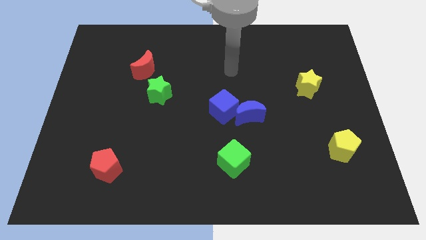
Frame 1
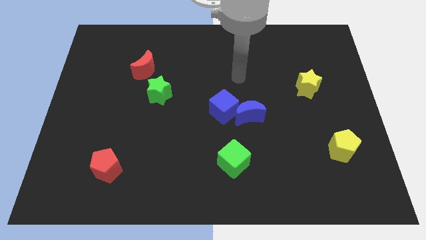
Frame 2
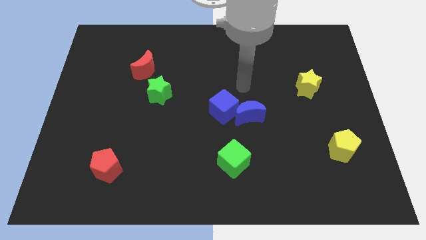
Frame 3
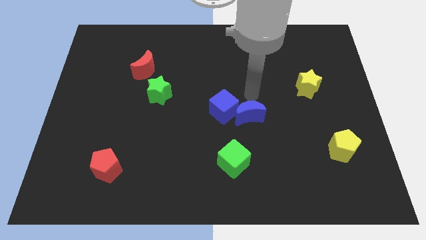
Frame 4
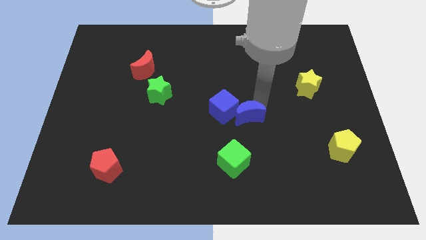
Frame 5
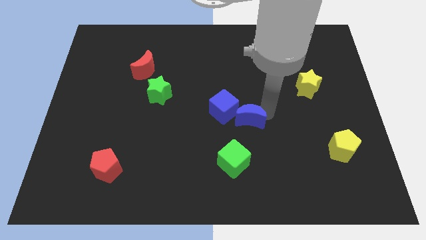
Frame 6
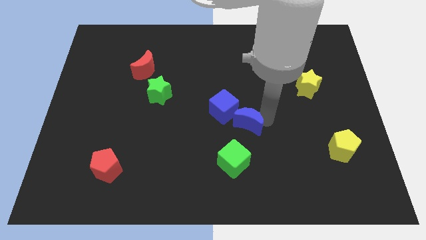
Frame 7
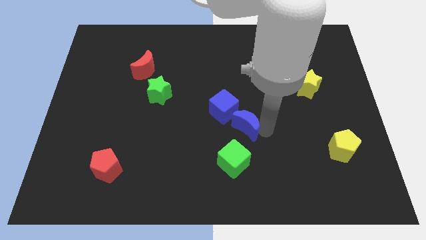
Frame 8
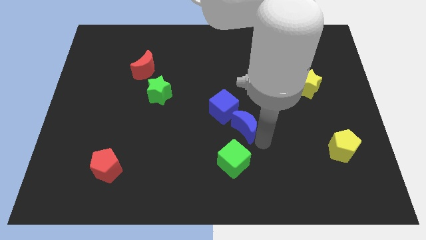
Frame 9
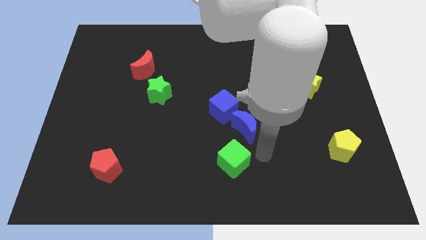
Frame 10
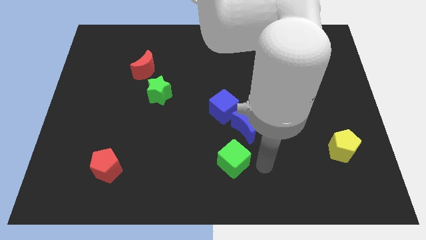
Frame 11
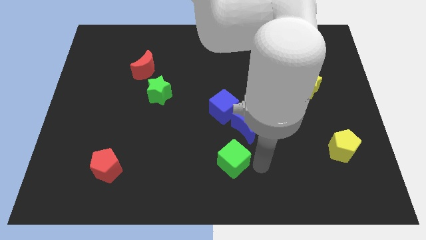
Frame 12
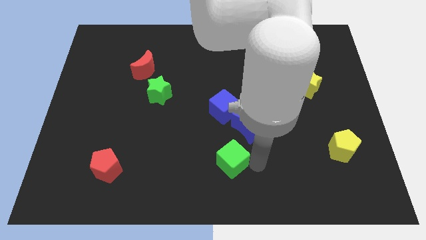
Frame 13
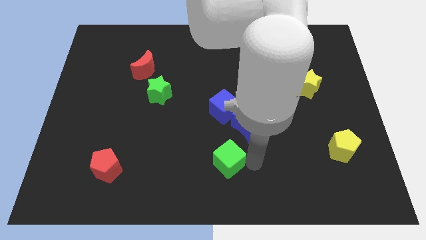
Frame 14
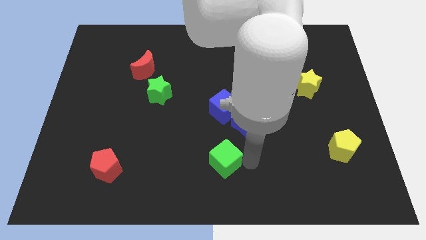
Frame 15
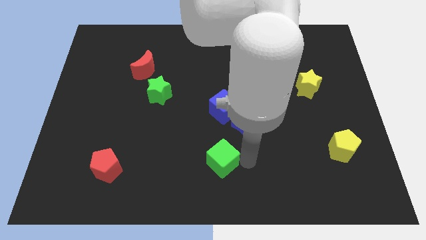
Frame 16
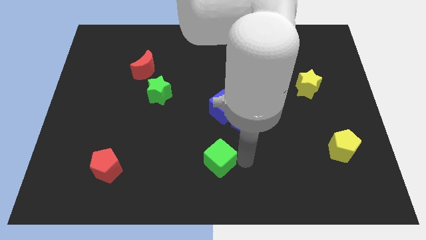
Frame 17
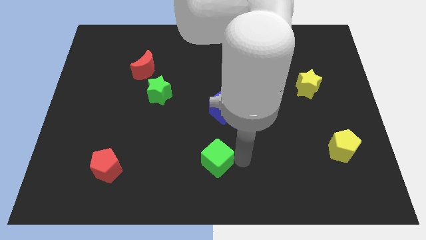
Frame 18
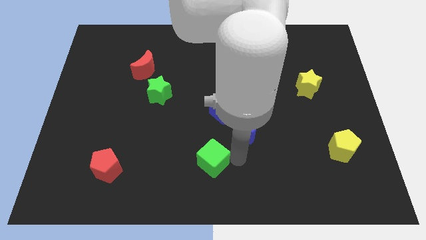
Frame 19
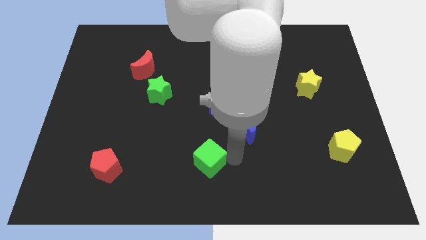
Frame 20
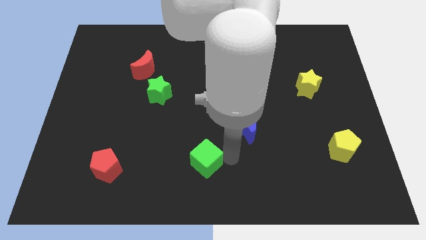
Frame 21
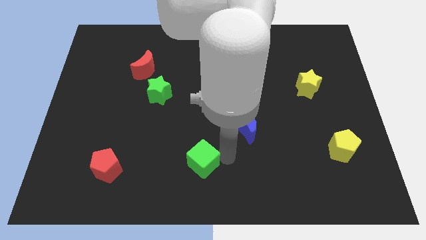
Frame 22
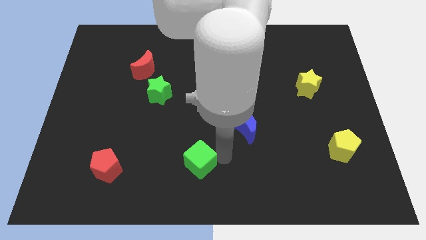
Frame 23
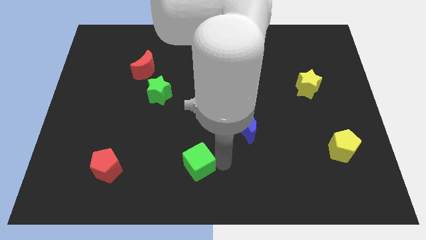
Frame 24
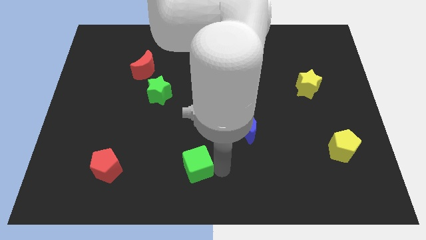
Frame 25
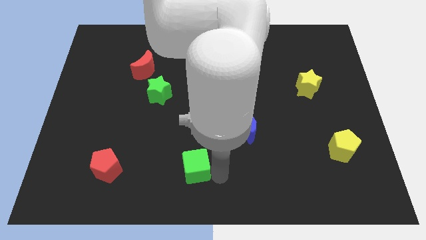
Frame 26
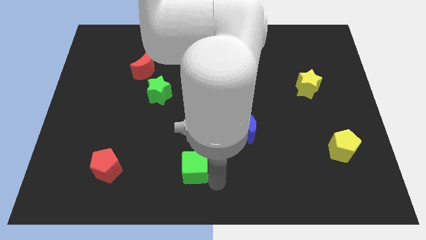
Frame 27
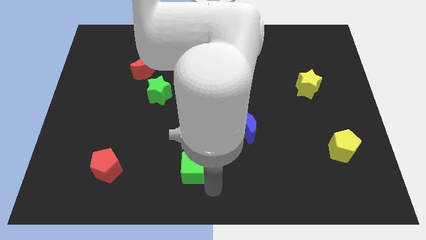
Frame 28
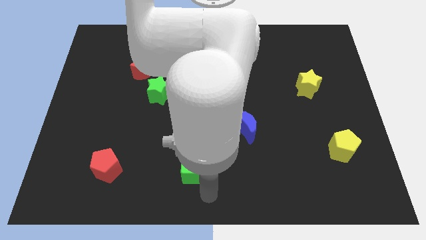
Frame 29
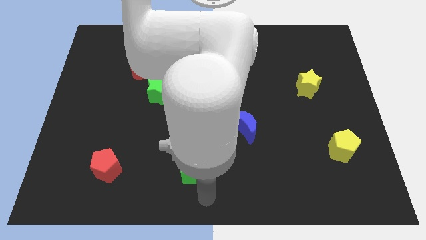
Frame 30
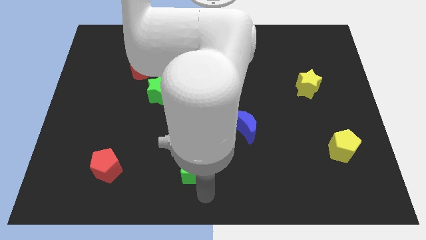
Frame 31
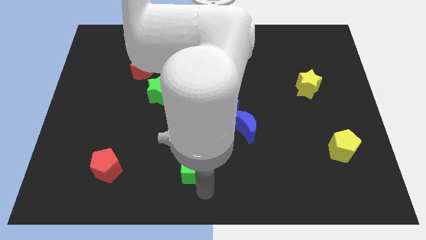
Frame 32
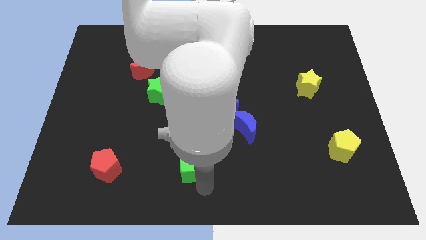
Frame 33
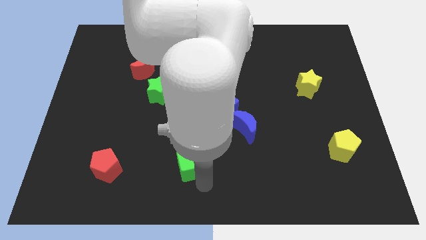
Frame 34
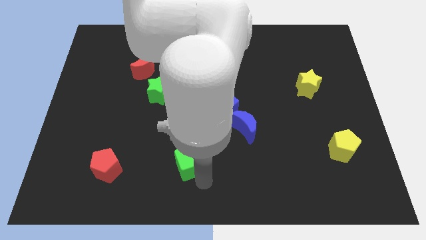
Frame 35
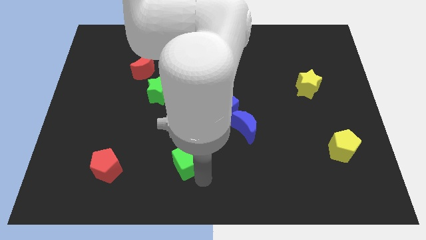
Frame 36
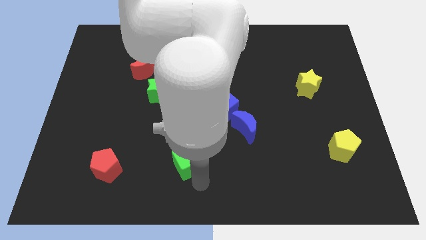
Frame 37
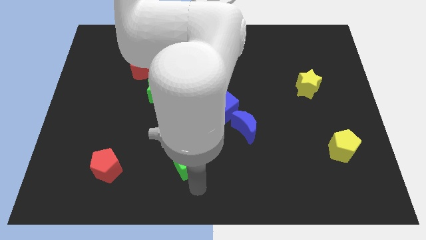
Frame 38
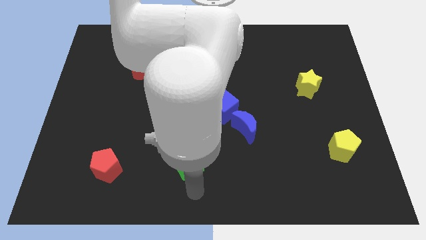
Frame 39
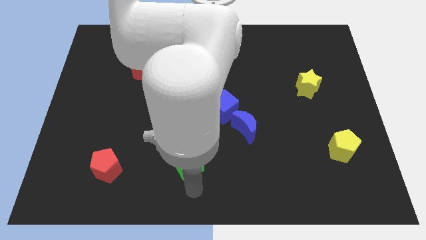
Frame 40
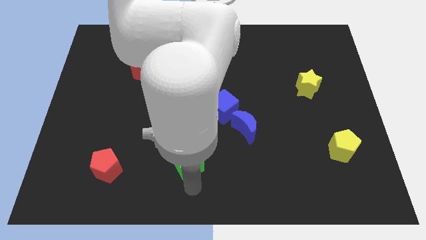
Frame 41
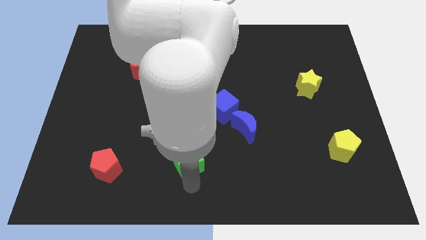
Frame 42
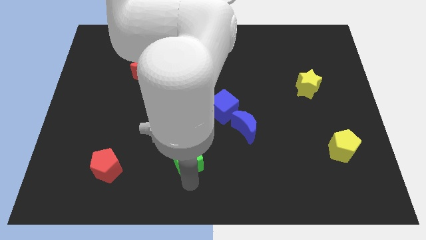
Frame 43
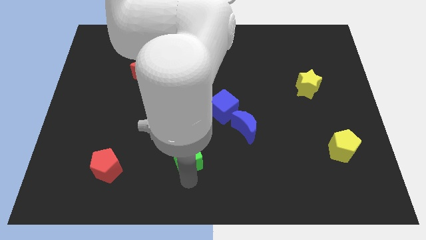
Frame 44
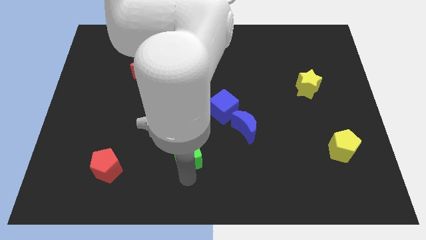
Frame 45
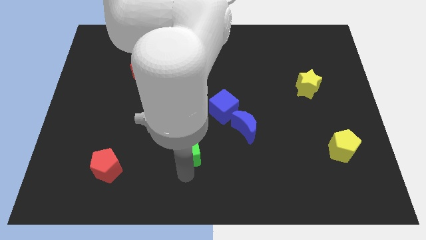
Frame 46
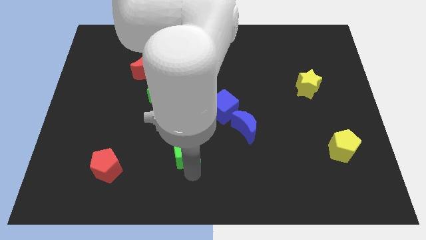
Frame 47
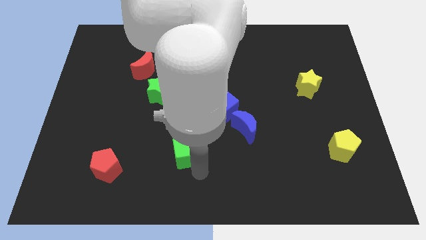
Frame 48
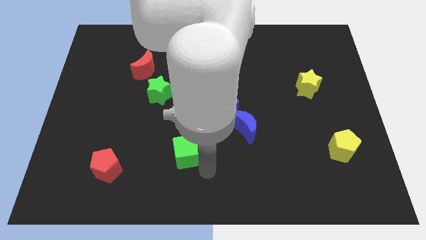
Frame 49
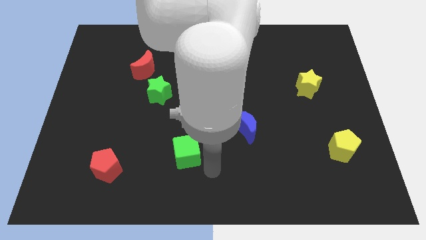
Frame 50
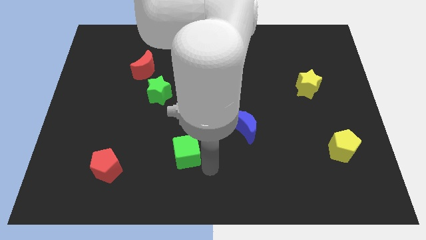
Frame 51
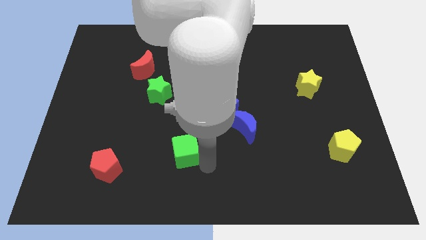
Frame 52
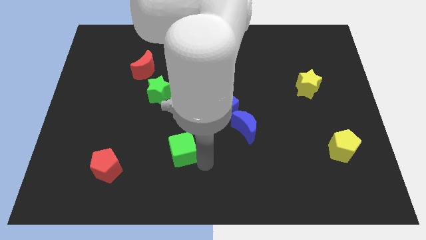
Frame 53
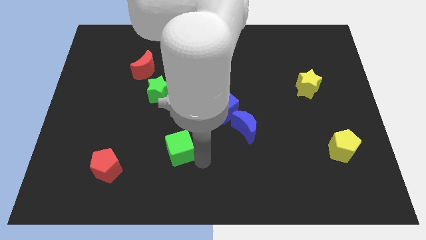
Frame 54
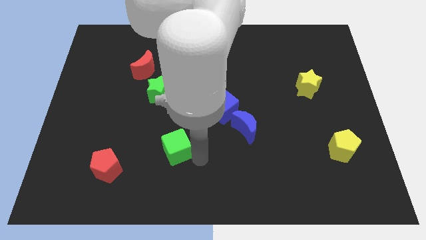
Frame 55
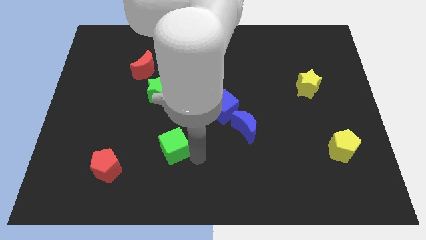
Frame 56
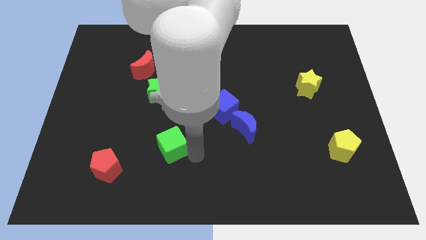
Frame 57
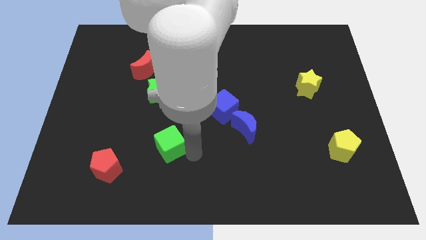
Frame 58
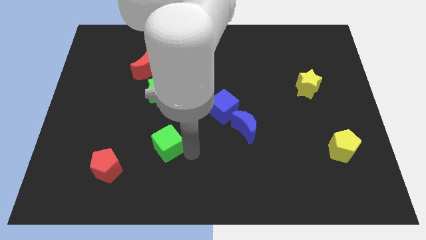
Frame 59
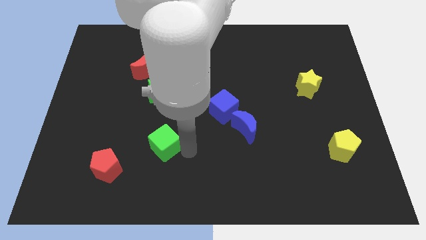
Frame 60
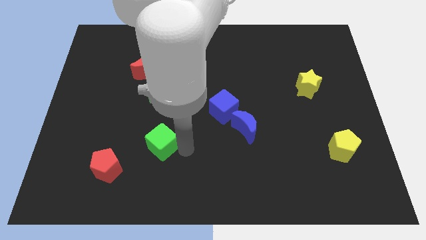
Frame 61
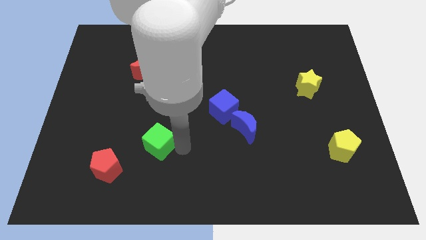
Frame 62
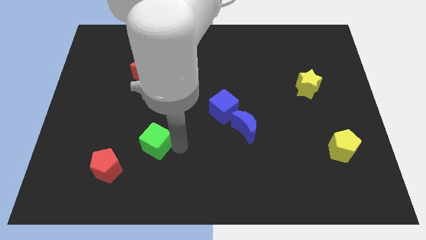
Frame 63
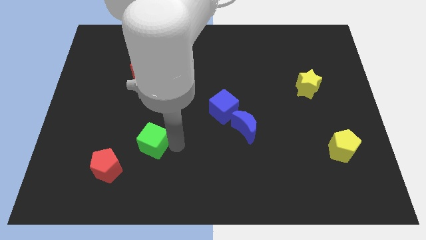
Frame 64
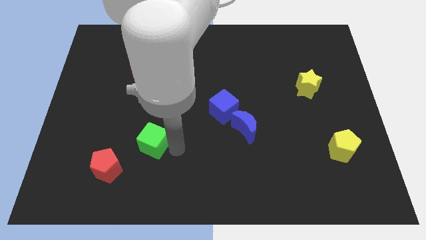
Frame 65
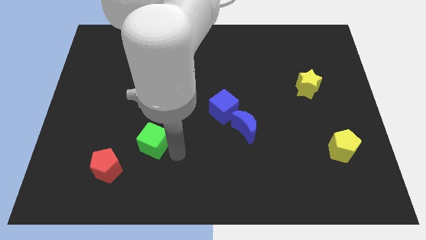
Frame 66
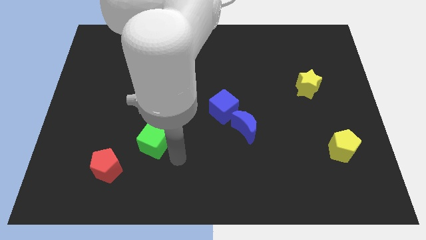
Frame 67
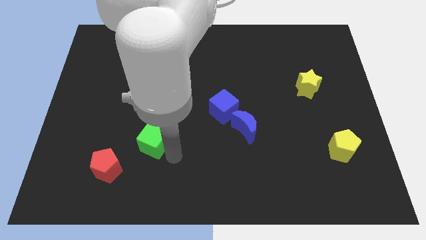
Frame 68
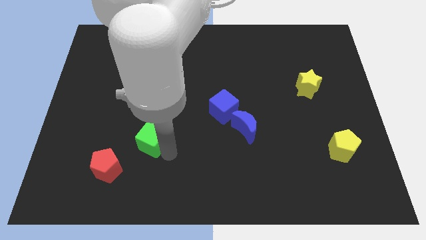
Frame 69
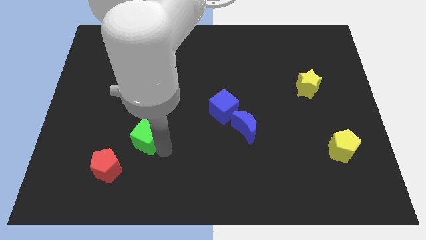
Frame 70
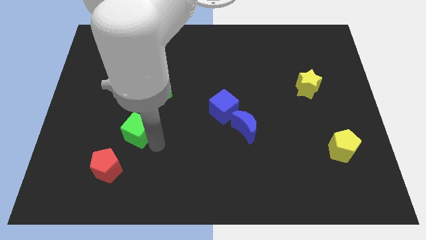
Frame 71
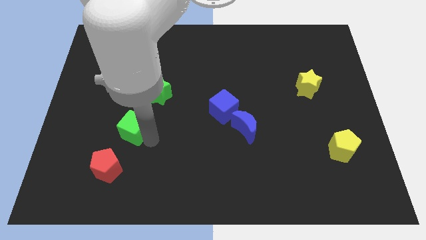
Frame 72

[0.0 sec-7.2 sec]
slide the green cube to the top side of the red pentagon
